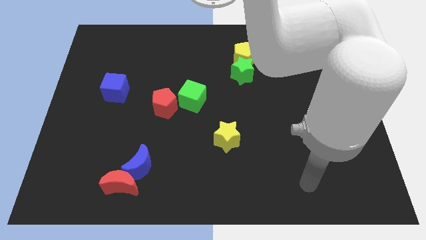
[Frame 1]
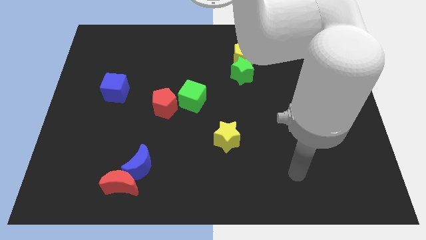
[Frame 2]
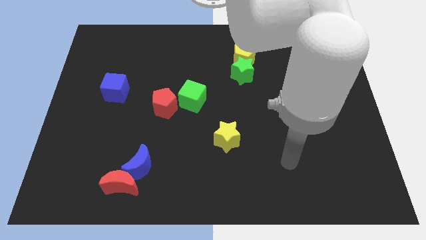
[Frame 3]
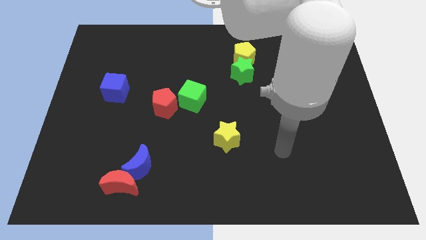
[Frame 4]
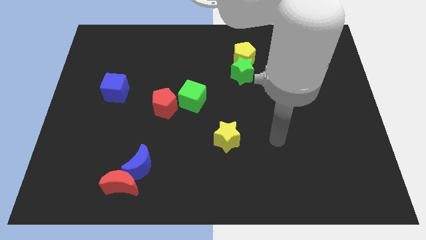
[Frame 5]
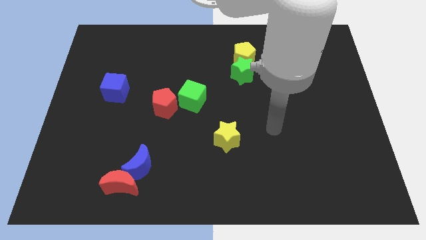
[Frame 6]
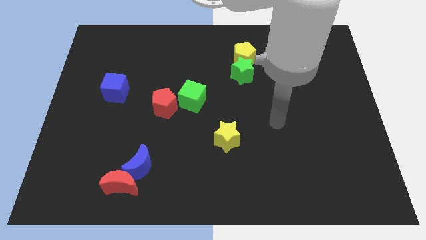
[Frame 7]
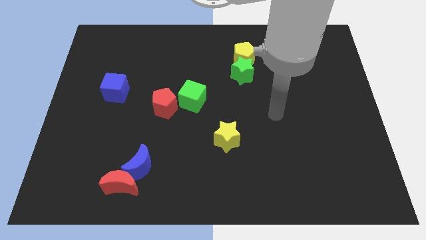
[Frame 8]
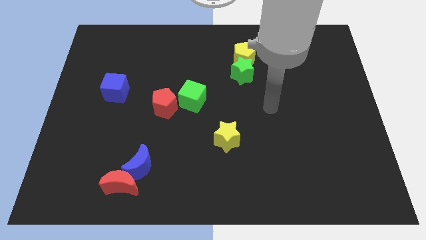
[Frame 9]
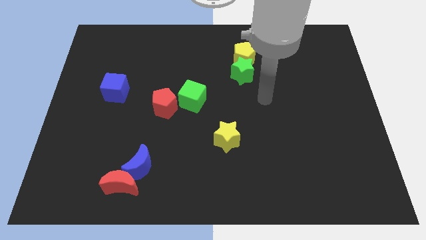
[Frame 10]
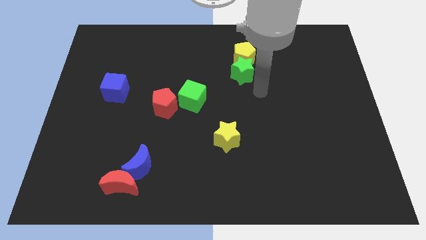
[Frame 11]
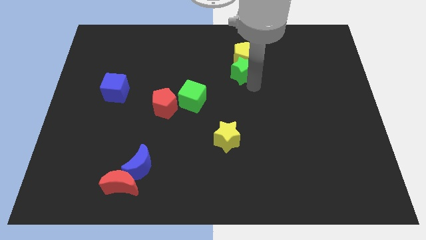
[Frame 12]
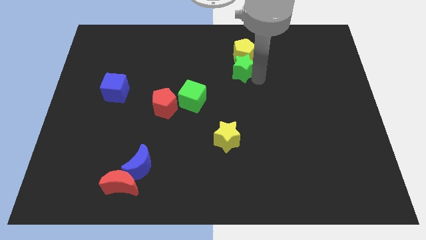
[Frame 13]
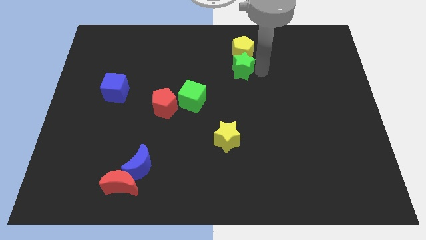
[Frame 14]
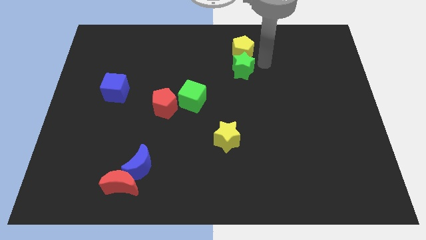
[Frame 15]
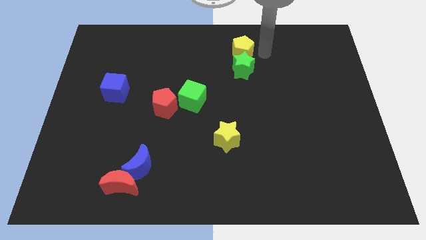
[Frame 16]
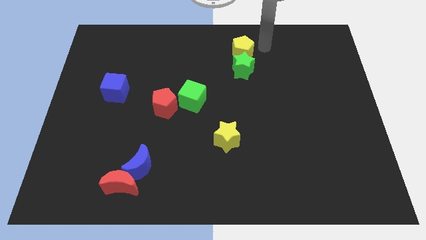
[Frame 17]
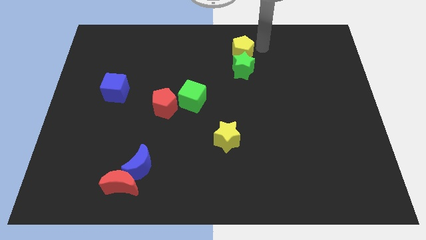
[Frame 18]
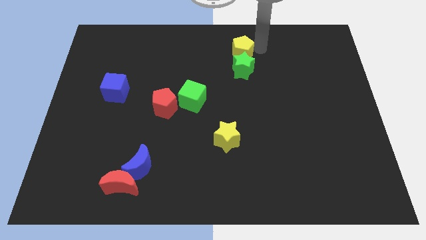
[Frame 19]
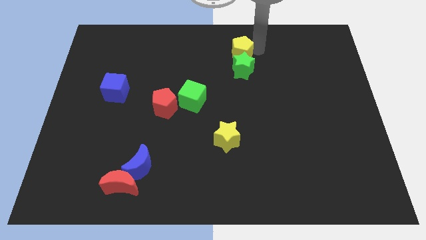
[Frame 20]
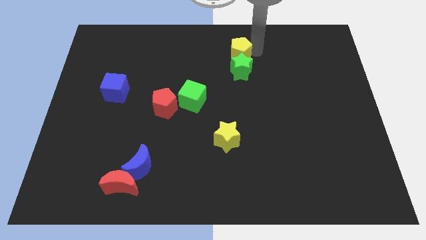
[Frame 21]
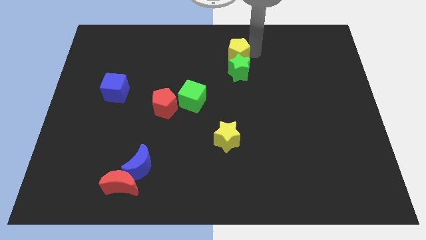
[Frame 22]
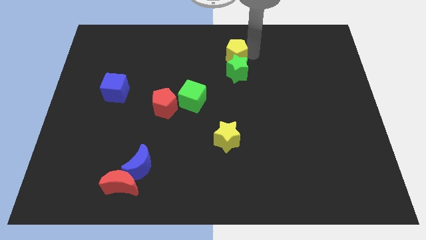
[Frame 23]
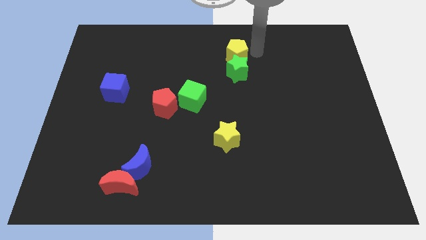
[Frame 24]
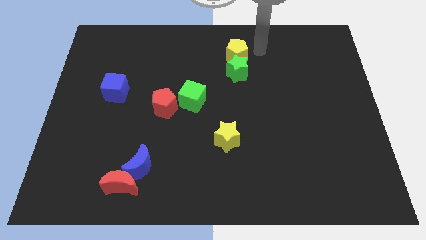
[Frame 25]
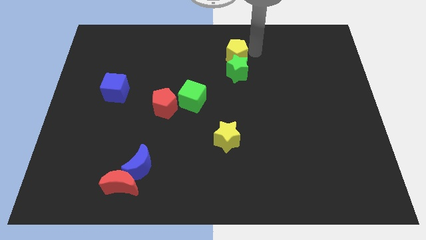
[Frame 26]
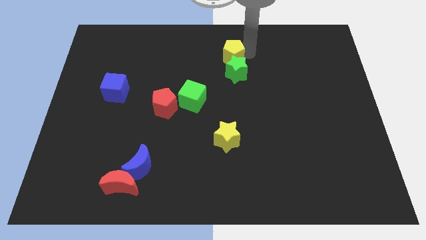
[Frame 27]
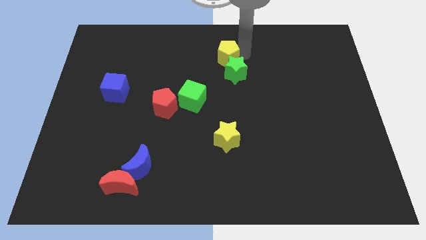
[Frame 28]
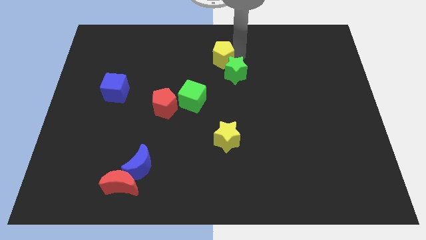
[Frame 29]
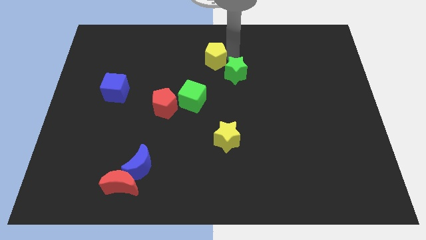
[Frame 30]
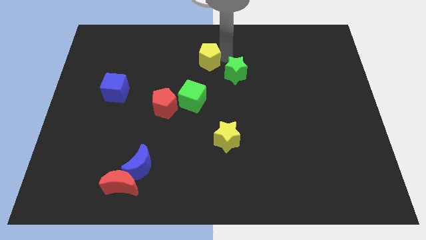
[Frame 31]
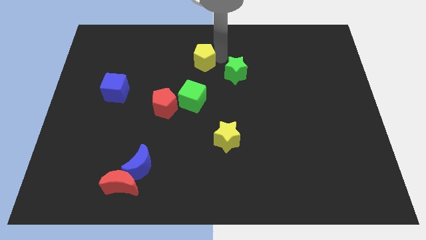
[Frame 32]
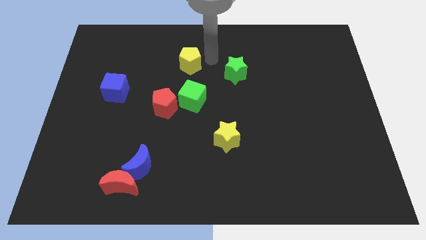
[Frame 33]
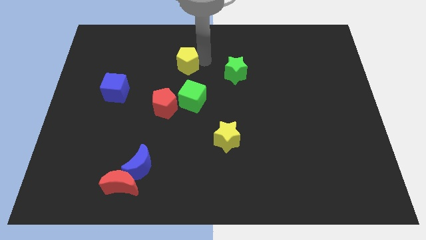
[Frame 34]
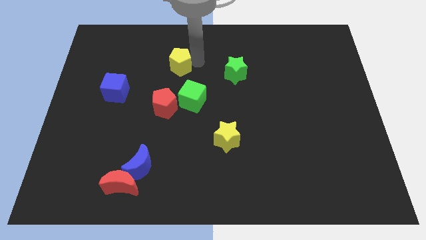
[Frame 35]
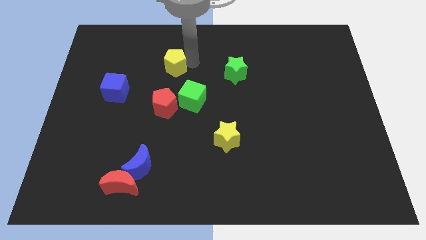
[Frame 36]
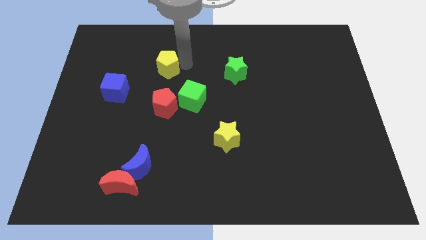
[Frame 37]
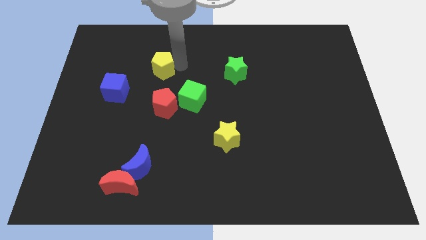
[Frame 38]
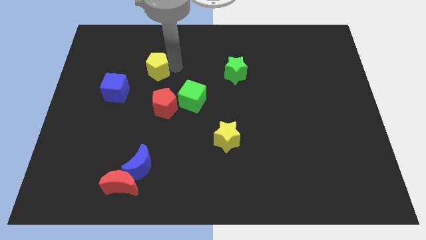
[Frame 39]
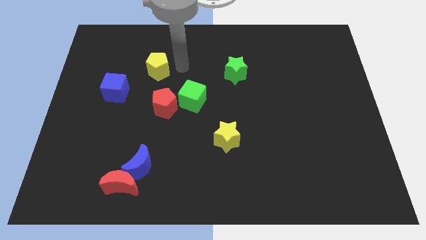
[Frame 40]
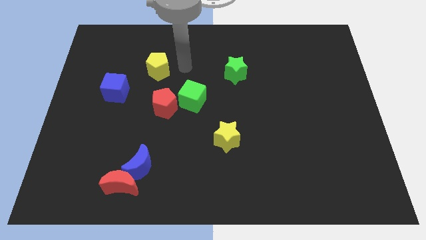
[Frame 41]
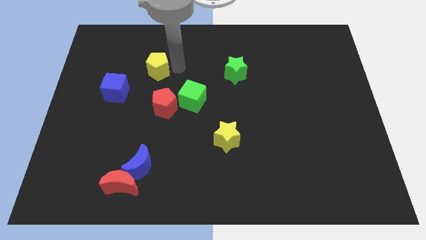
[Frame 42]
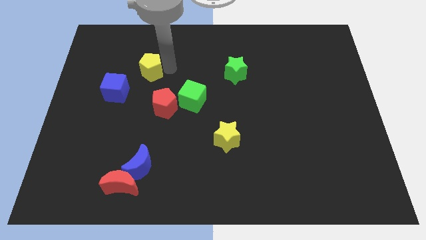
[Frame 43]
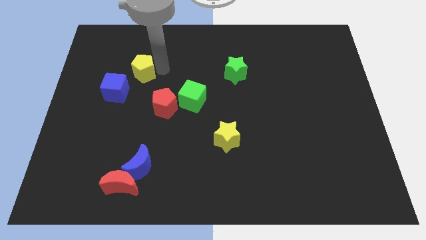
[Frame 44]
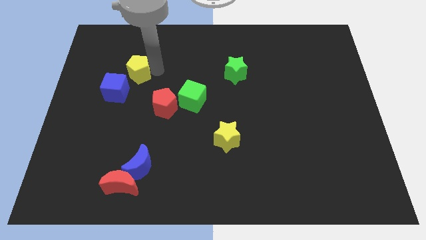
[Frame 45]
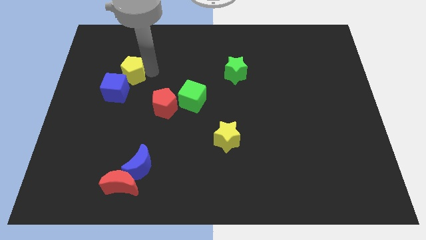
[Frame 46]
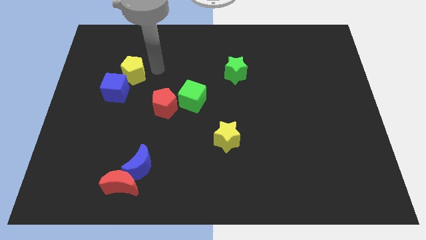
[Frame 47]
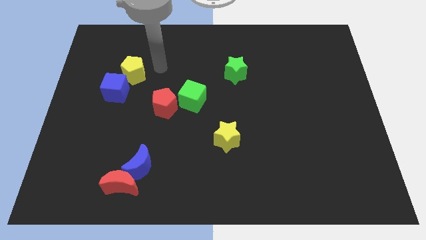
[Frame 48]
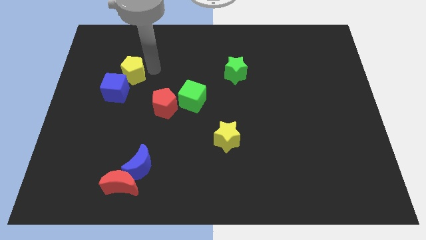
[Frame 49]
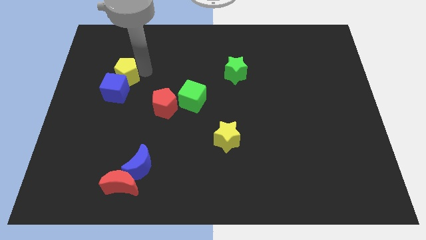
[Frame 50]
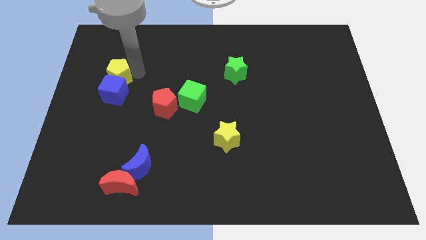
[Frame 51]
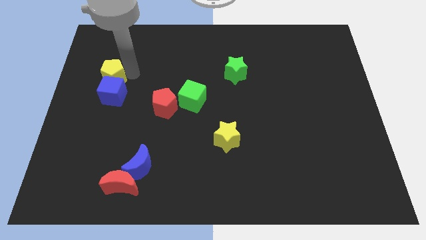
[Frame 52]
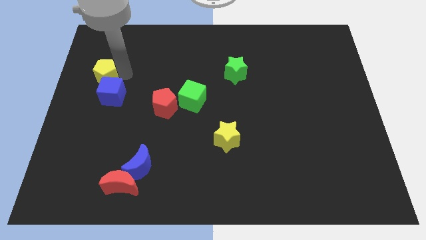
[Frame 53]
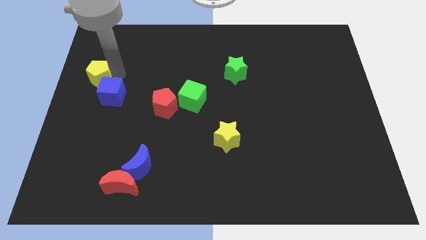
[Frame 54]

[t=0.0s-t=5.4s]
slide the yellow pentagon to the center left
